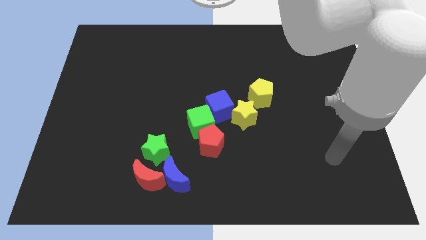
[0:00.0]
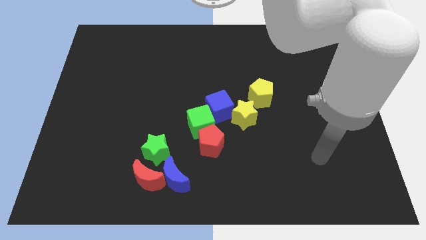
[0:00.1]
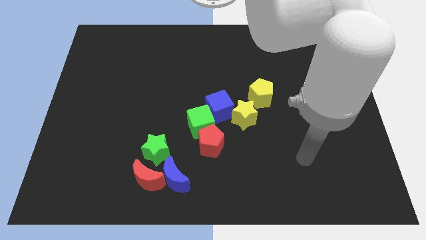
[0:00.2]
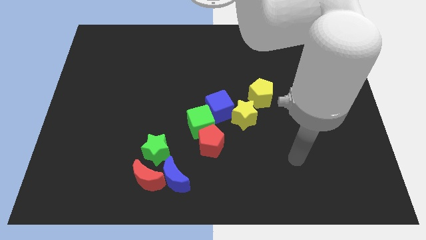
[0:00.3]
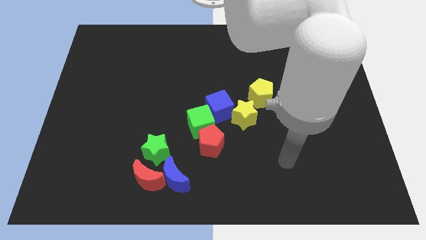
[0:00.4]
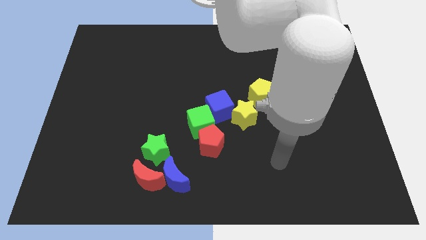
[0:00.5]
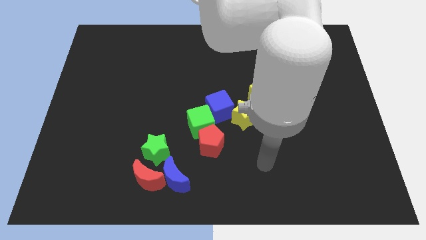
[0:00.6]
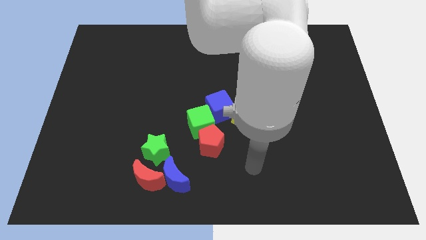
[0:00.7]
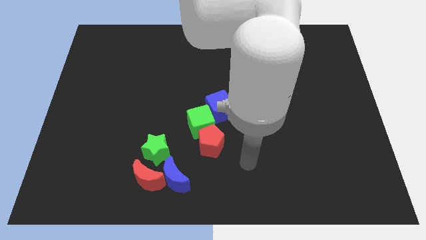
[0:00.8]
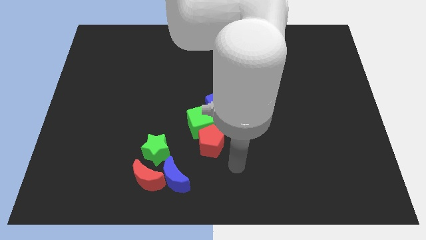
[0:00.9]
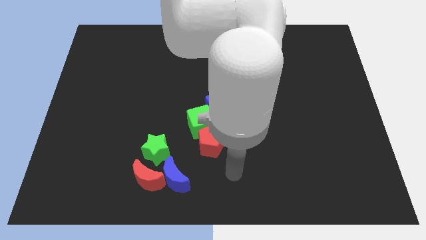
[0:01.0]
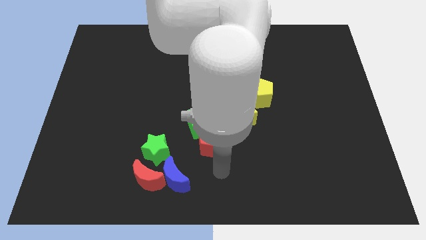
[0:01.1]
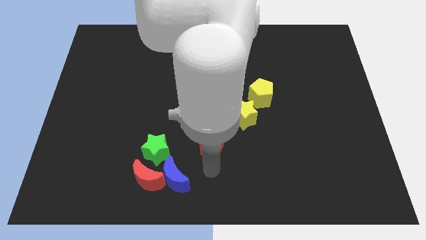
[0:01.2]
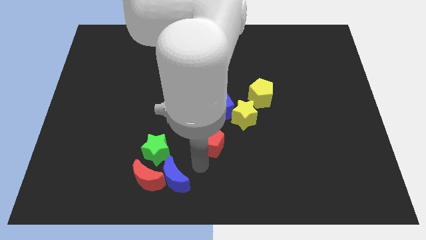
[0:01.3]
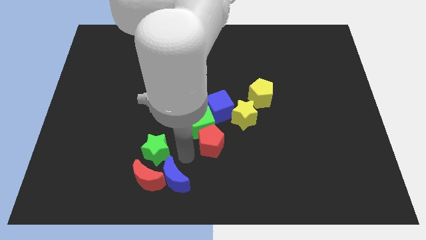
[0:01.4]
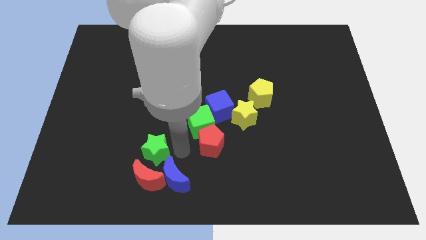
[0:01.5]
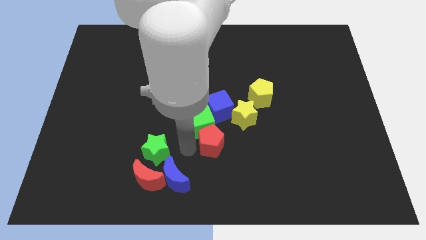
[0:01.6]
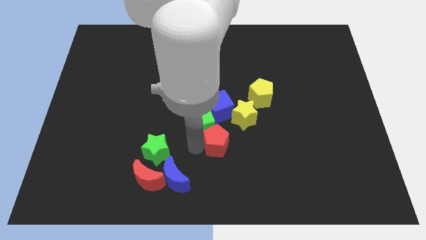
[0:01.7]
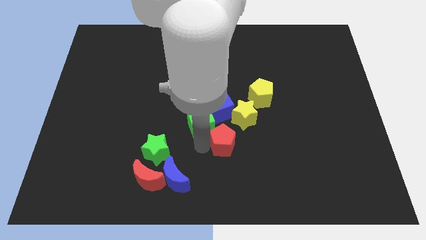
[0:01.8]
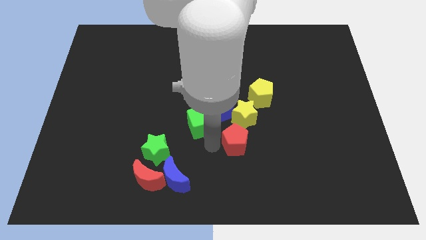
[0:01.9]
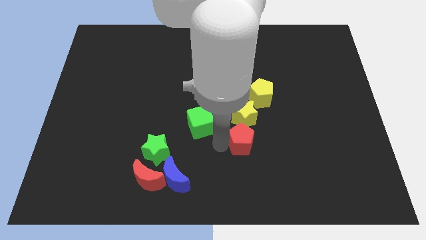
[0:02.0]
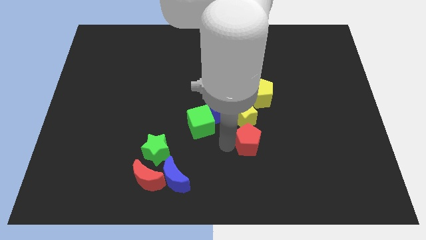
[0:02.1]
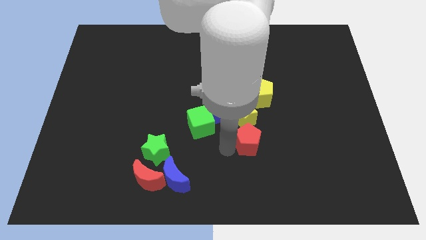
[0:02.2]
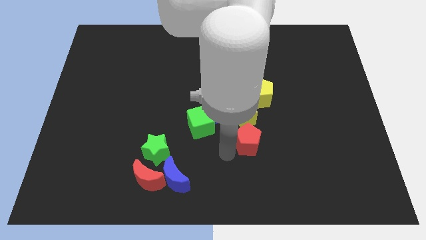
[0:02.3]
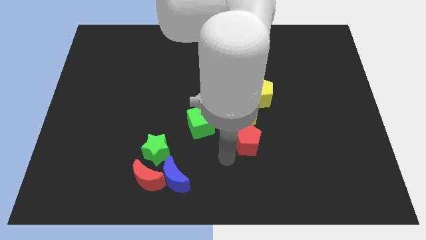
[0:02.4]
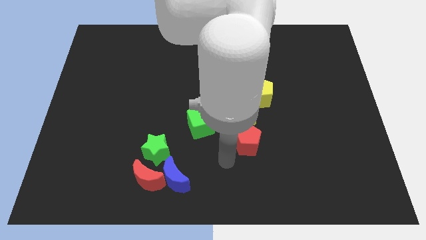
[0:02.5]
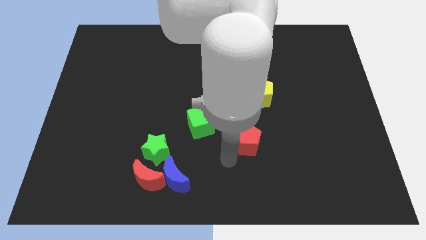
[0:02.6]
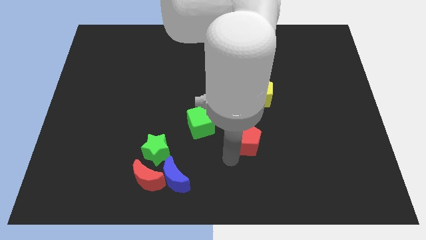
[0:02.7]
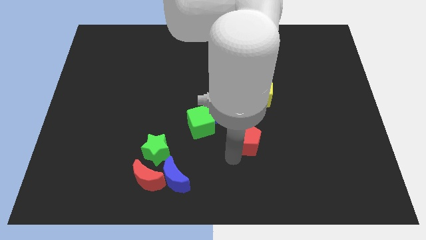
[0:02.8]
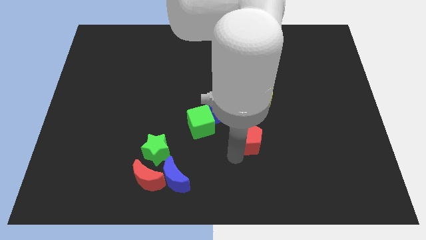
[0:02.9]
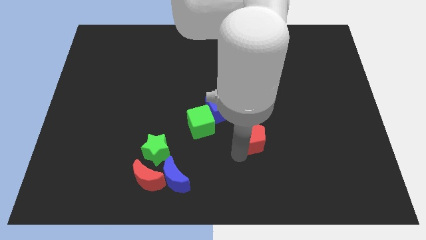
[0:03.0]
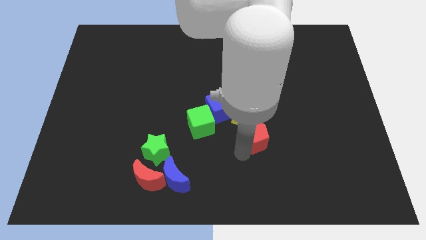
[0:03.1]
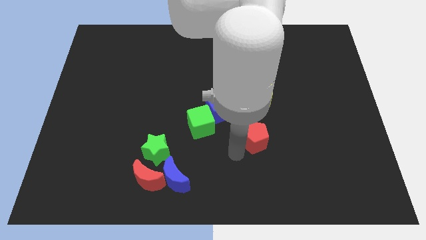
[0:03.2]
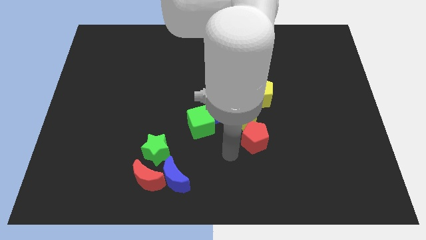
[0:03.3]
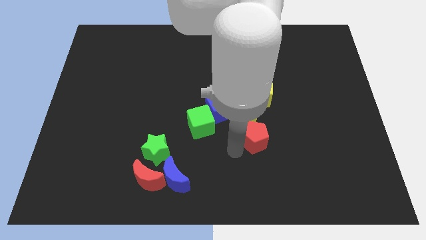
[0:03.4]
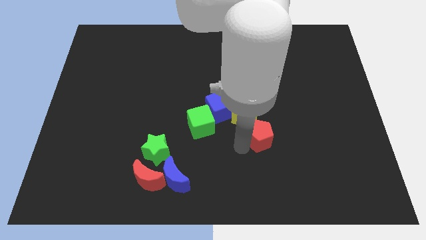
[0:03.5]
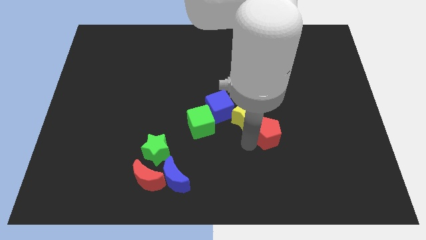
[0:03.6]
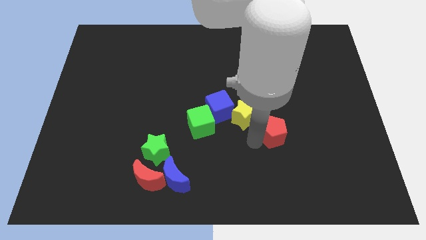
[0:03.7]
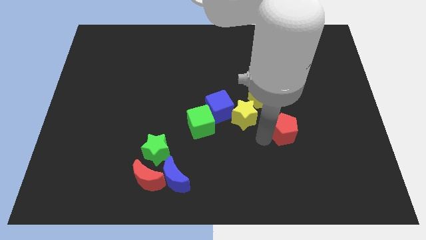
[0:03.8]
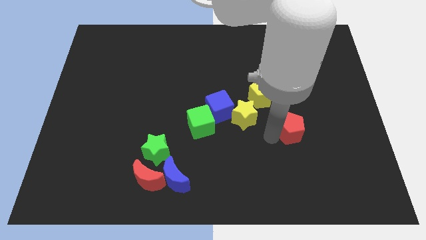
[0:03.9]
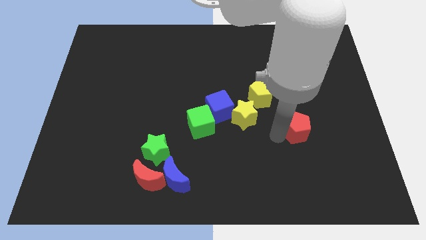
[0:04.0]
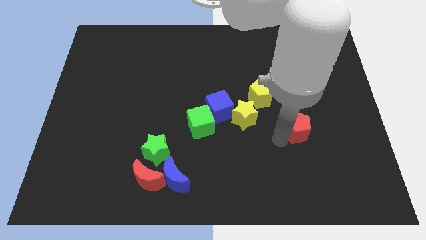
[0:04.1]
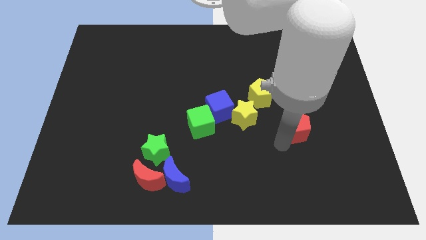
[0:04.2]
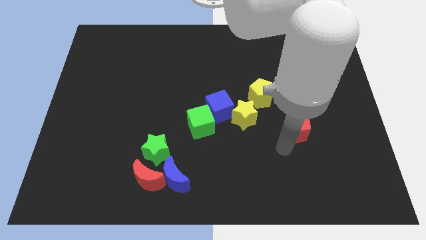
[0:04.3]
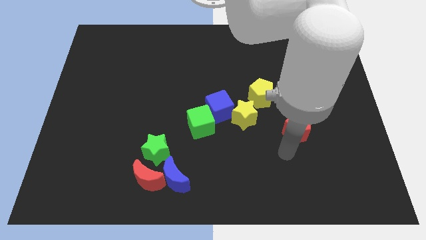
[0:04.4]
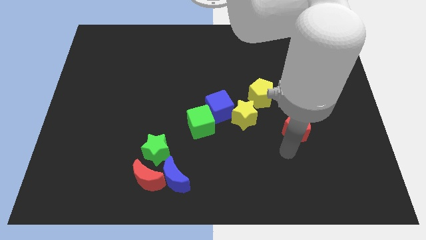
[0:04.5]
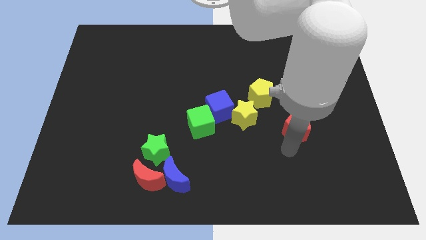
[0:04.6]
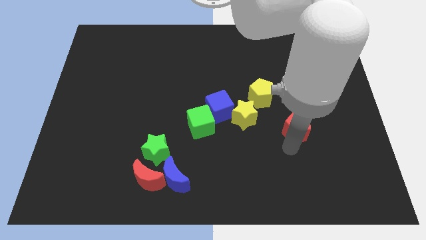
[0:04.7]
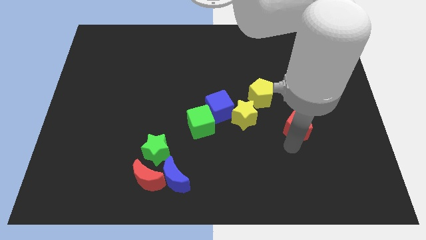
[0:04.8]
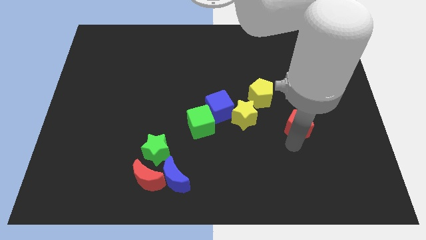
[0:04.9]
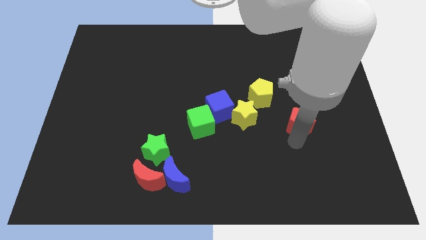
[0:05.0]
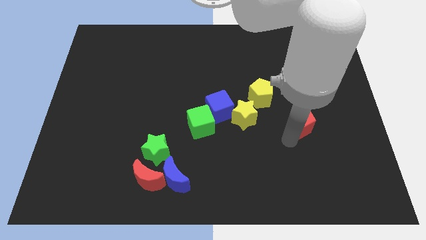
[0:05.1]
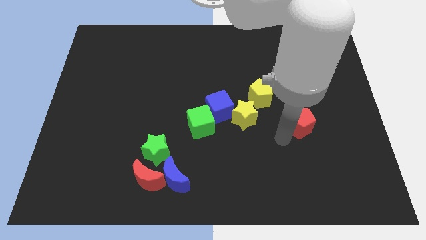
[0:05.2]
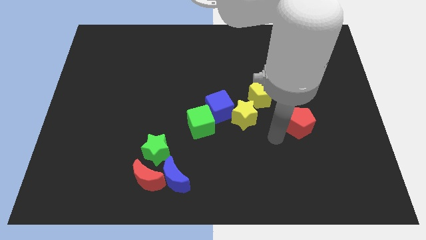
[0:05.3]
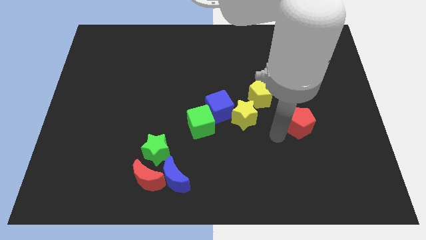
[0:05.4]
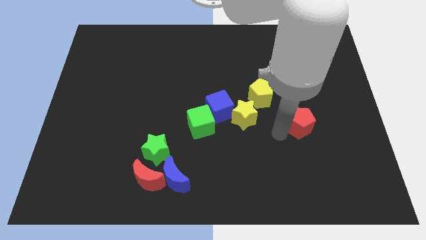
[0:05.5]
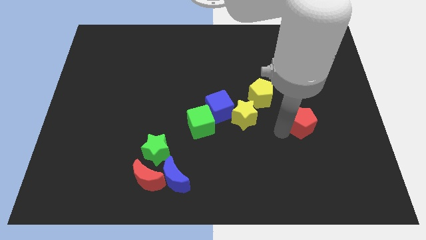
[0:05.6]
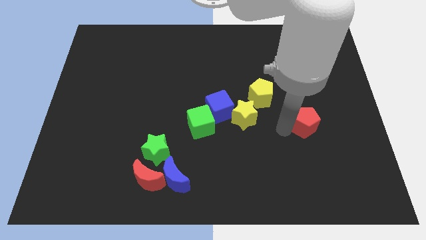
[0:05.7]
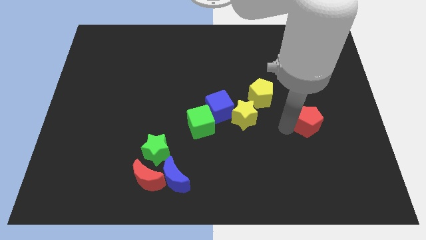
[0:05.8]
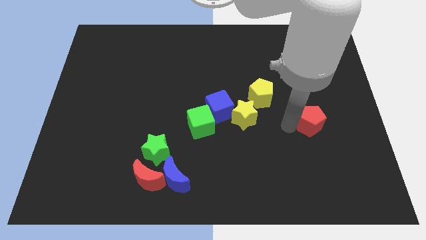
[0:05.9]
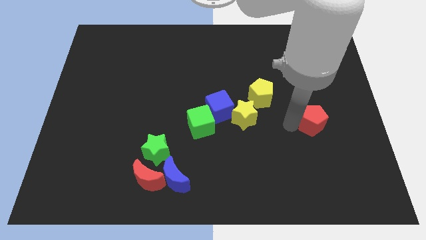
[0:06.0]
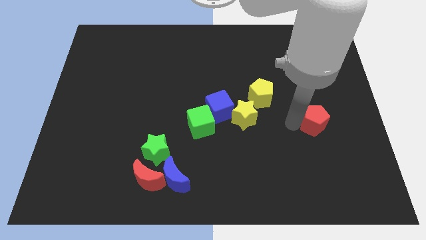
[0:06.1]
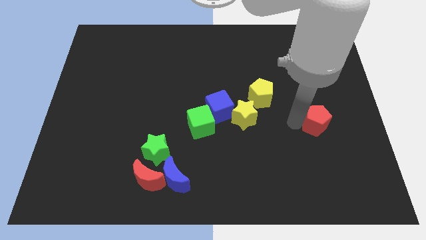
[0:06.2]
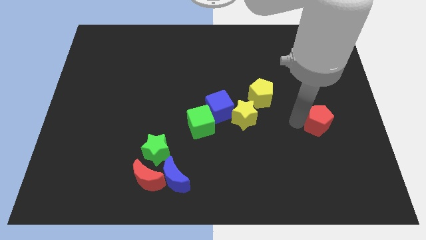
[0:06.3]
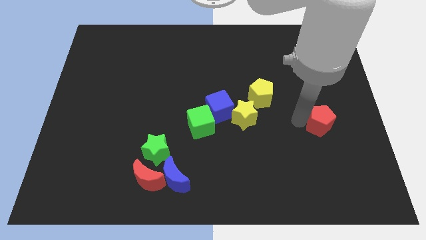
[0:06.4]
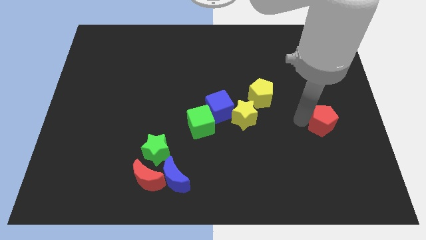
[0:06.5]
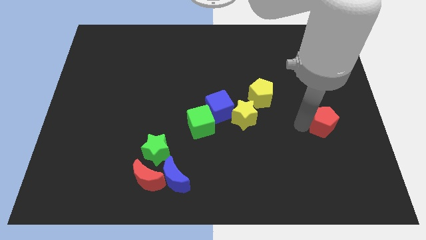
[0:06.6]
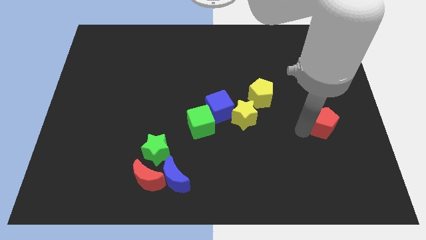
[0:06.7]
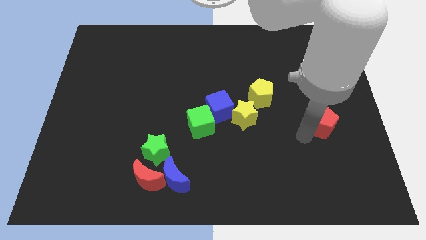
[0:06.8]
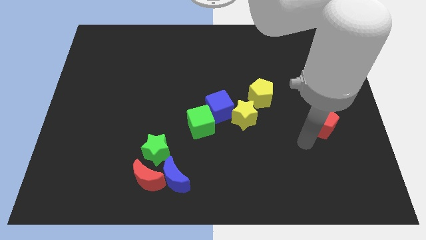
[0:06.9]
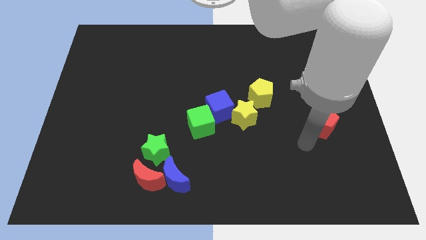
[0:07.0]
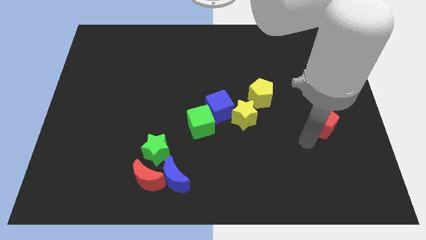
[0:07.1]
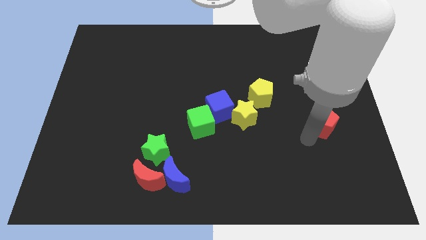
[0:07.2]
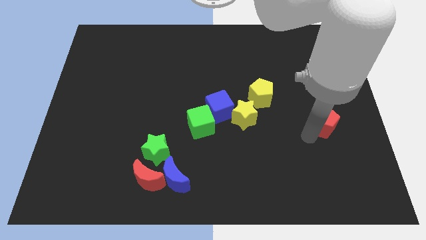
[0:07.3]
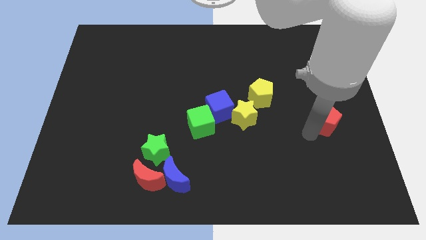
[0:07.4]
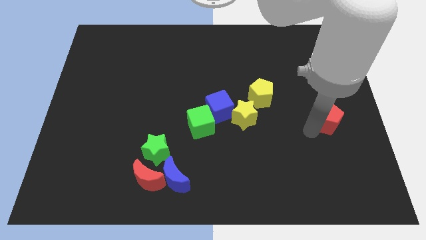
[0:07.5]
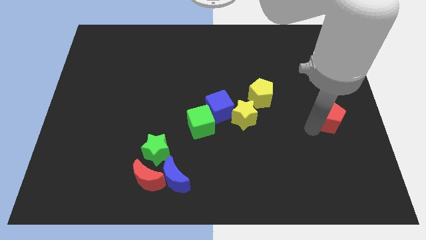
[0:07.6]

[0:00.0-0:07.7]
put the red pentagon to the right side
